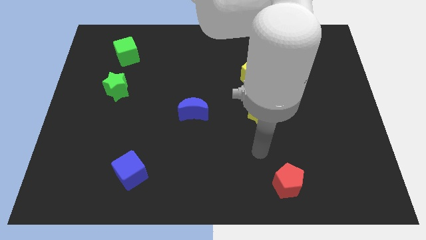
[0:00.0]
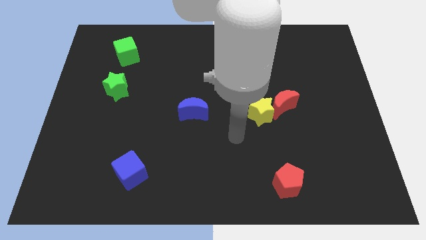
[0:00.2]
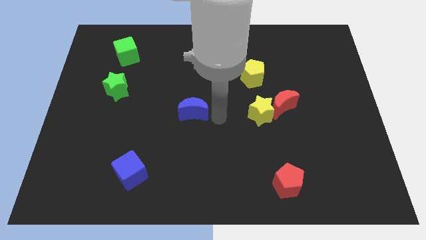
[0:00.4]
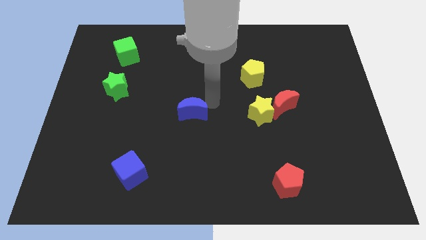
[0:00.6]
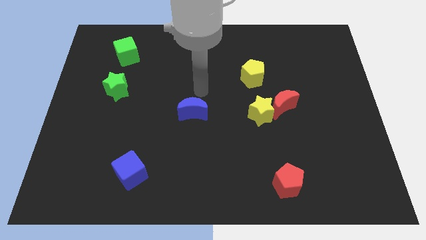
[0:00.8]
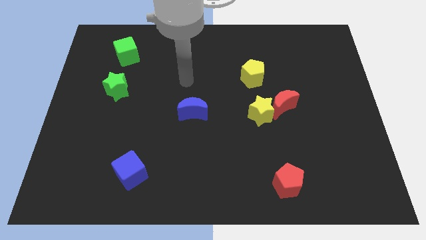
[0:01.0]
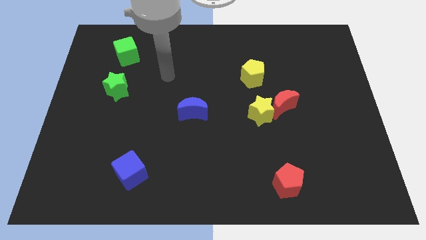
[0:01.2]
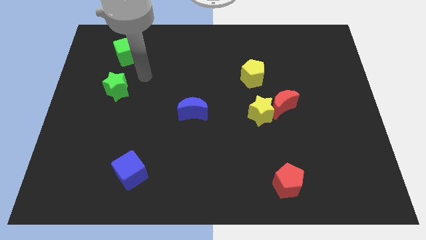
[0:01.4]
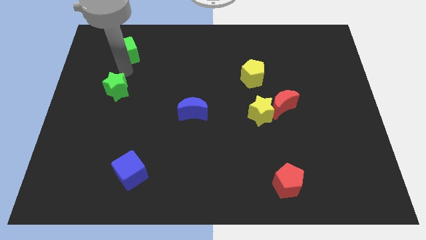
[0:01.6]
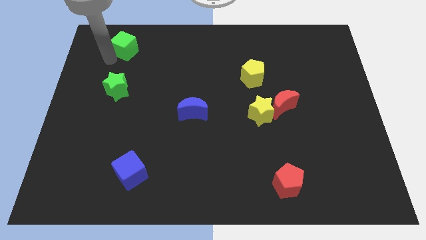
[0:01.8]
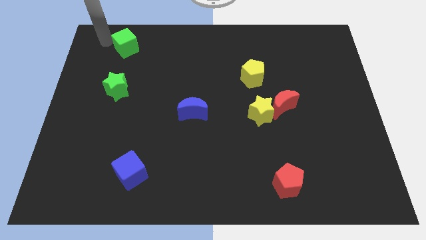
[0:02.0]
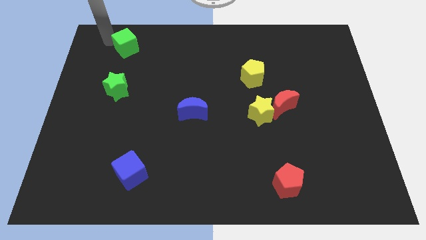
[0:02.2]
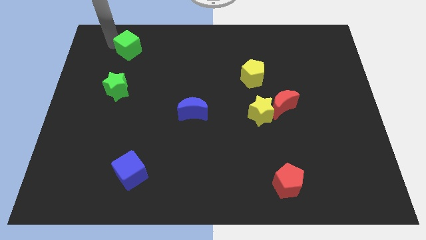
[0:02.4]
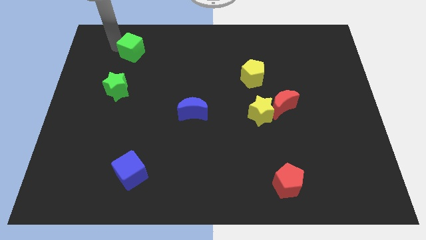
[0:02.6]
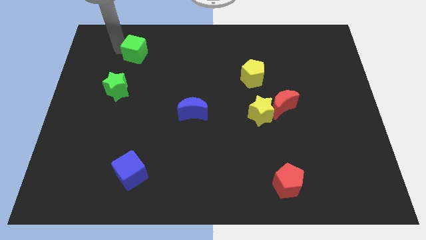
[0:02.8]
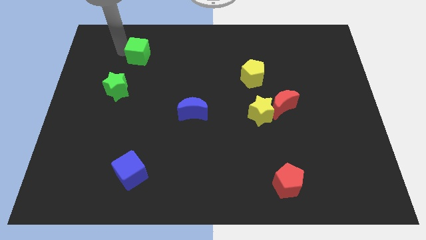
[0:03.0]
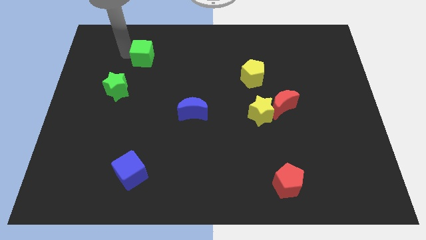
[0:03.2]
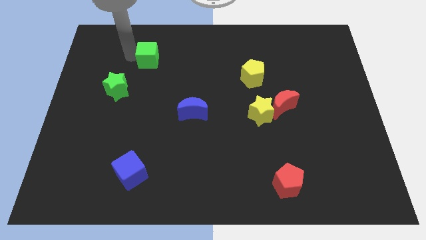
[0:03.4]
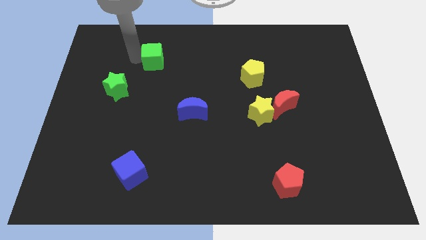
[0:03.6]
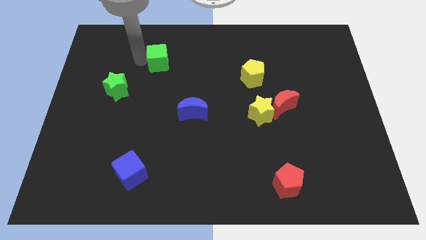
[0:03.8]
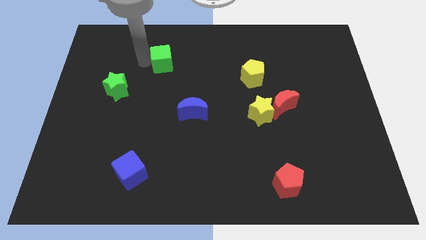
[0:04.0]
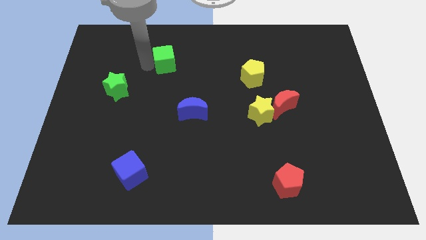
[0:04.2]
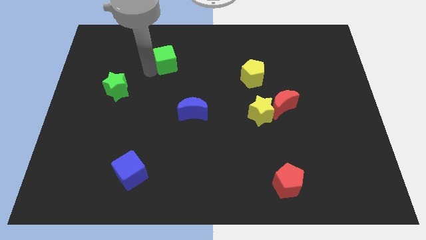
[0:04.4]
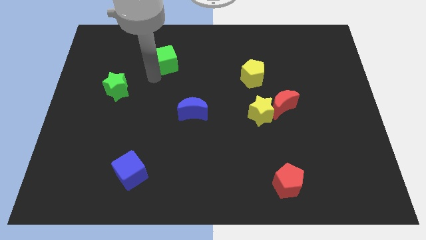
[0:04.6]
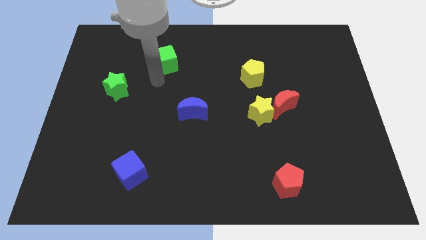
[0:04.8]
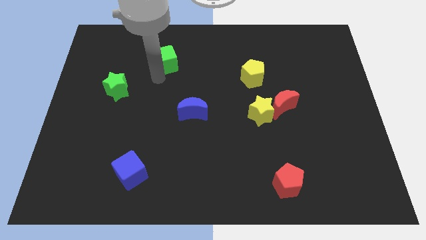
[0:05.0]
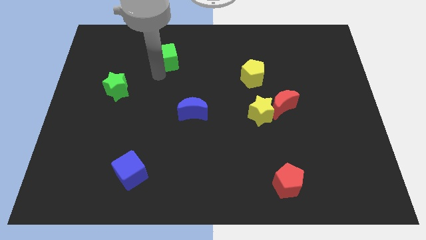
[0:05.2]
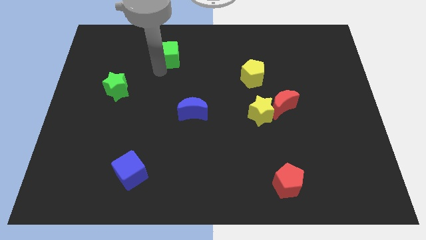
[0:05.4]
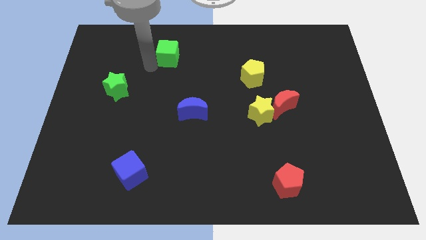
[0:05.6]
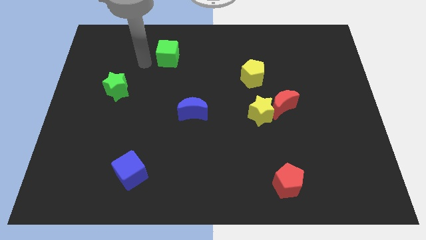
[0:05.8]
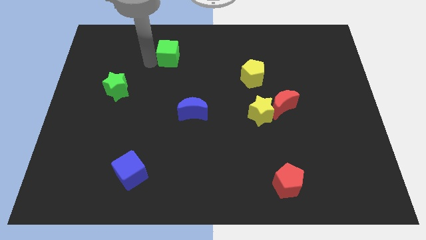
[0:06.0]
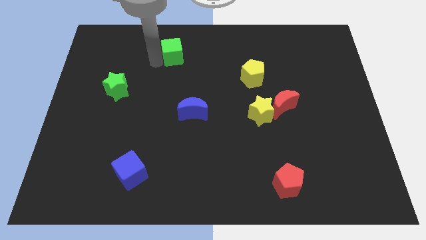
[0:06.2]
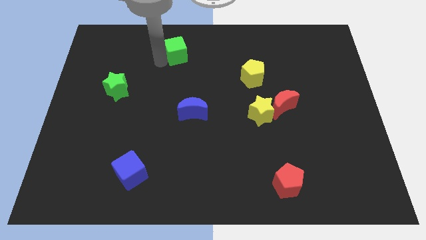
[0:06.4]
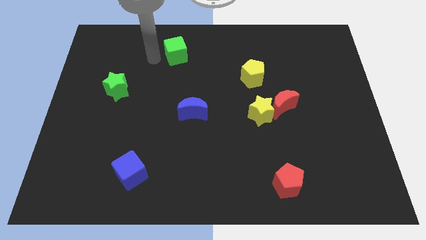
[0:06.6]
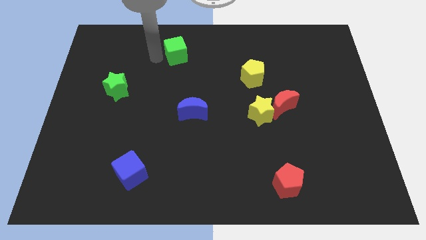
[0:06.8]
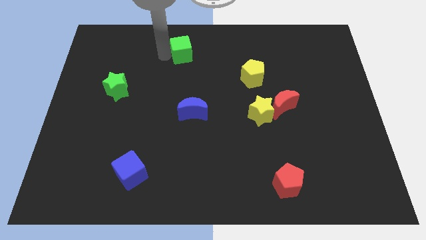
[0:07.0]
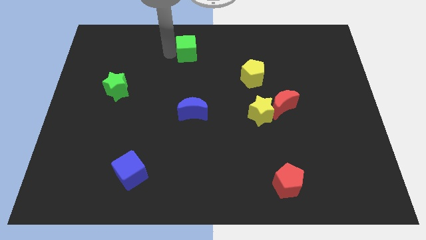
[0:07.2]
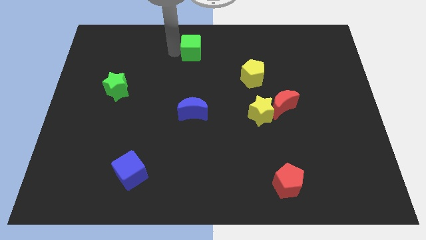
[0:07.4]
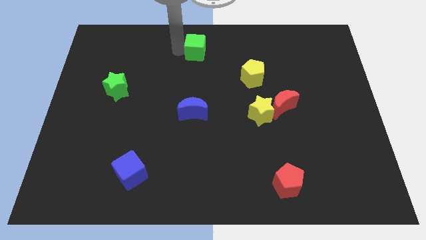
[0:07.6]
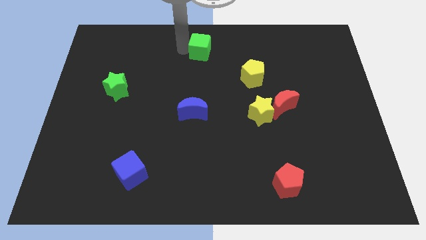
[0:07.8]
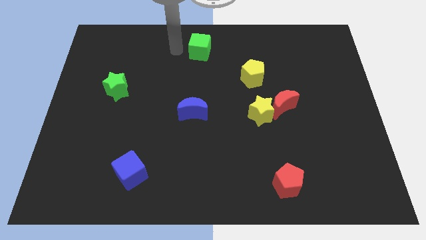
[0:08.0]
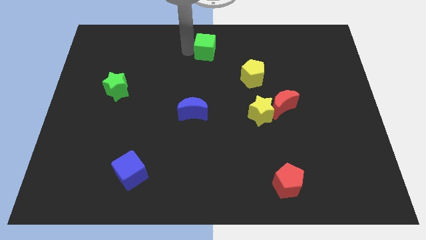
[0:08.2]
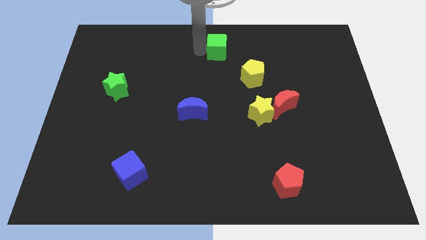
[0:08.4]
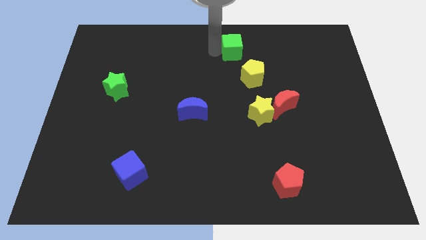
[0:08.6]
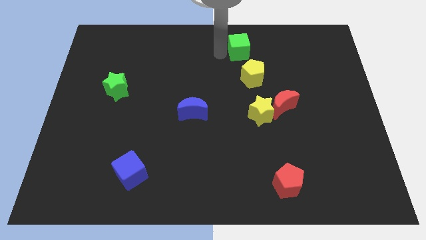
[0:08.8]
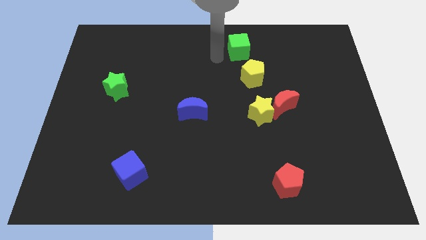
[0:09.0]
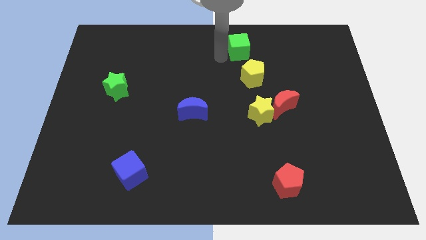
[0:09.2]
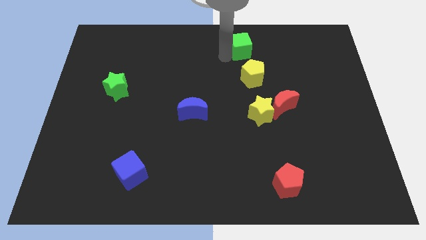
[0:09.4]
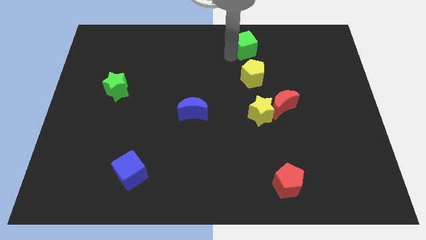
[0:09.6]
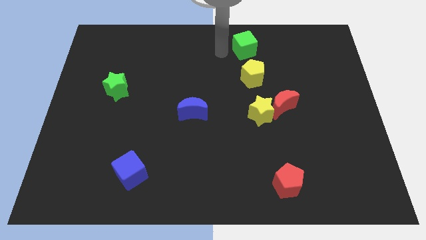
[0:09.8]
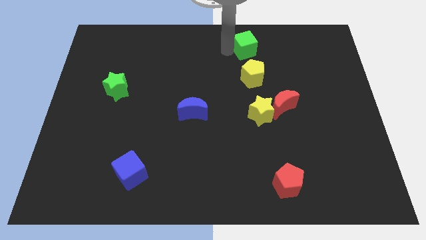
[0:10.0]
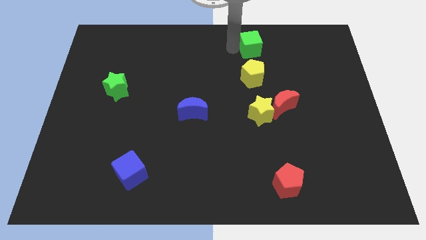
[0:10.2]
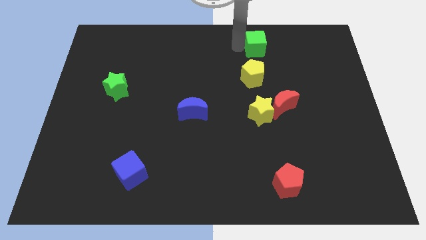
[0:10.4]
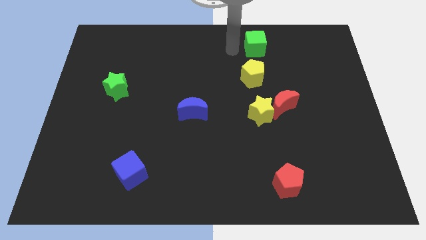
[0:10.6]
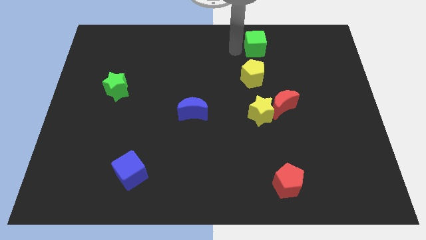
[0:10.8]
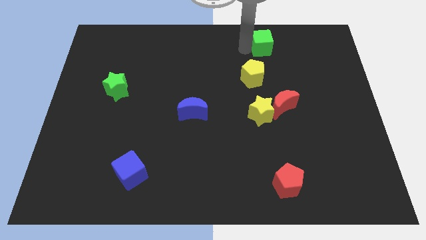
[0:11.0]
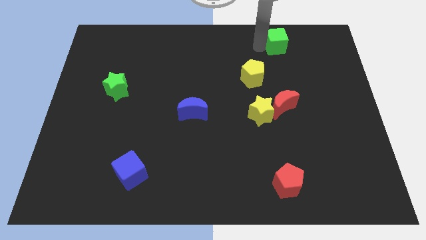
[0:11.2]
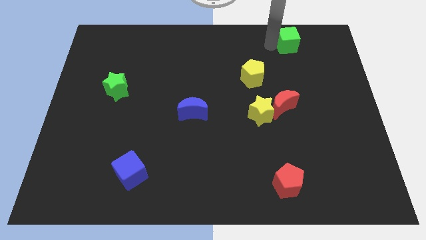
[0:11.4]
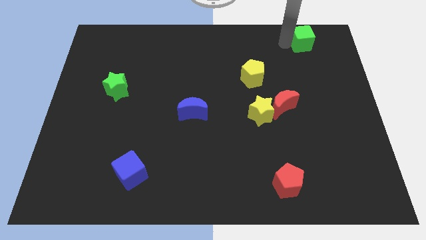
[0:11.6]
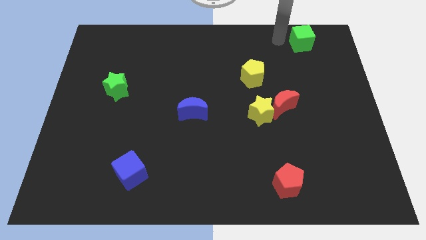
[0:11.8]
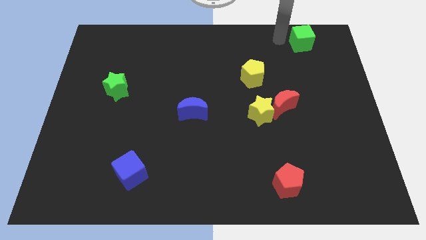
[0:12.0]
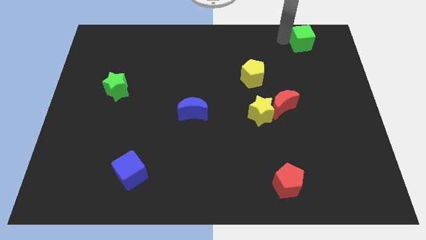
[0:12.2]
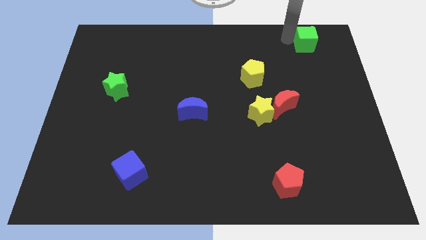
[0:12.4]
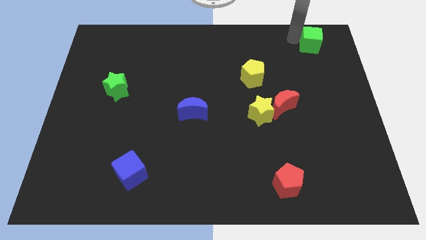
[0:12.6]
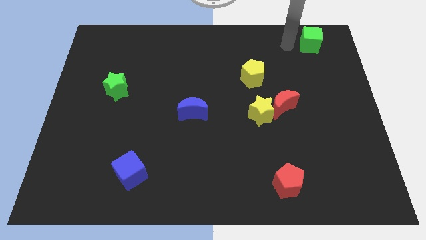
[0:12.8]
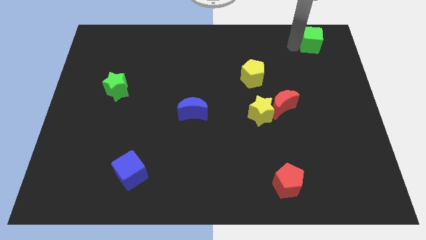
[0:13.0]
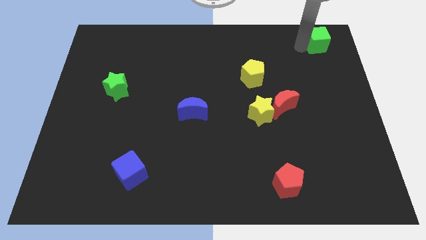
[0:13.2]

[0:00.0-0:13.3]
put the green cube to the upper right corner
